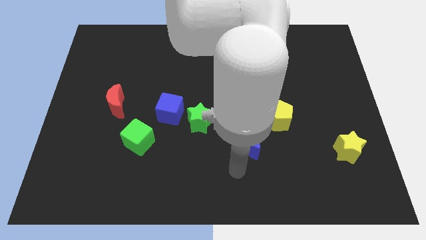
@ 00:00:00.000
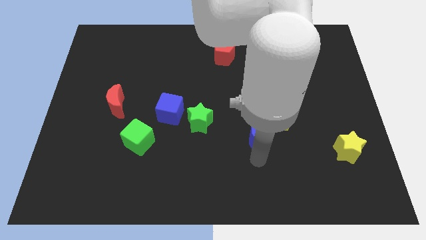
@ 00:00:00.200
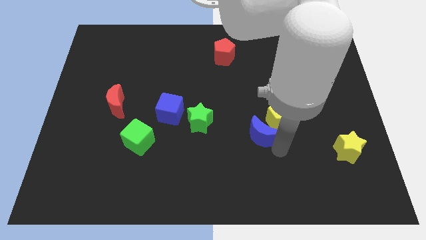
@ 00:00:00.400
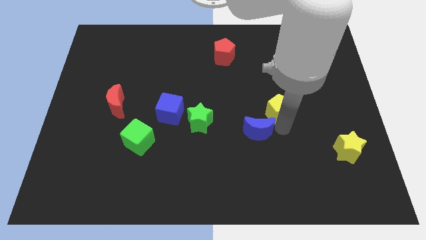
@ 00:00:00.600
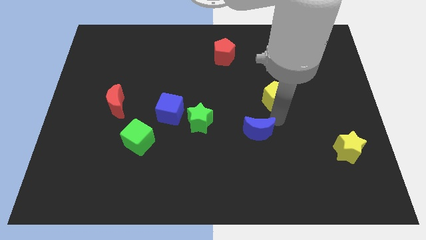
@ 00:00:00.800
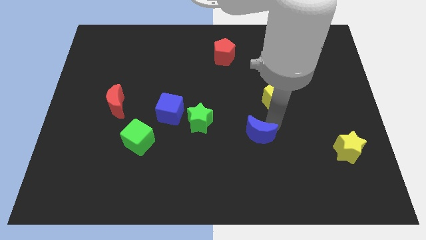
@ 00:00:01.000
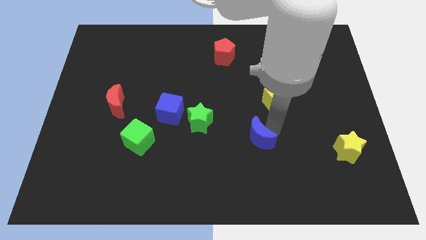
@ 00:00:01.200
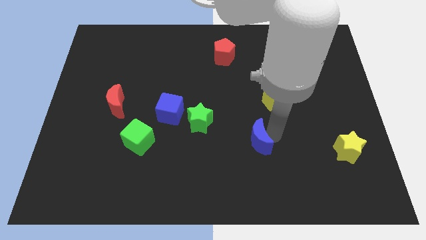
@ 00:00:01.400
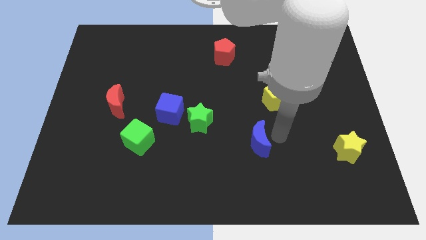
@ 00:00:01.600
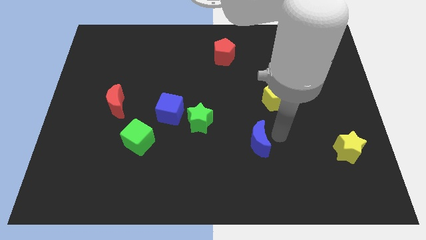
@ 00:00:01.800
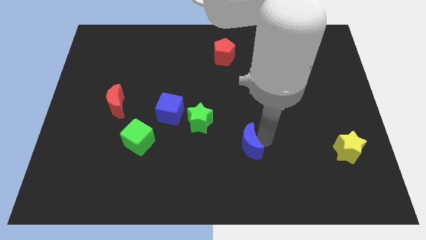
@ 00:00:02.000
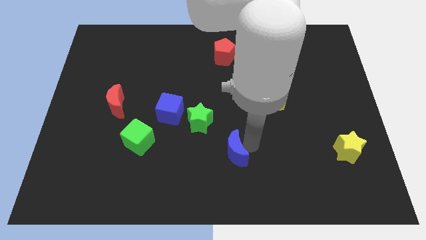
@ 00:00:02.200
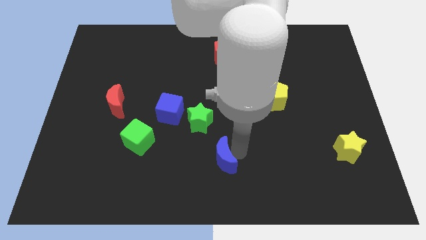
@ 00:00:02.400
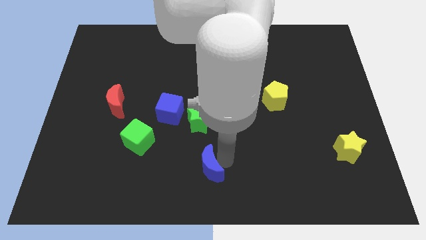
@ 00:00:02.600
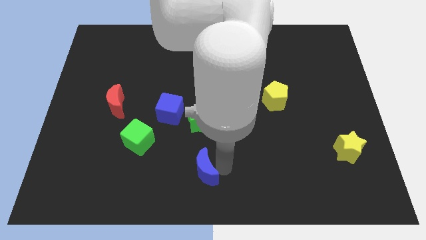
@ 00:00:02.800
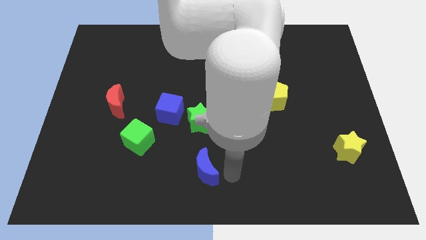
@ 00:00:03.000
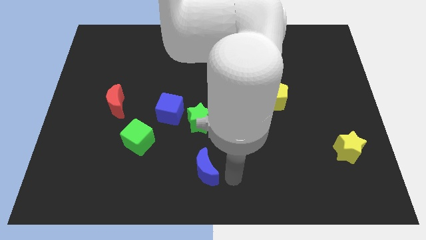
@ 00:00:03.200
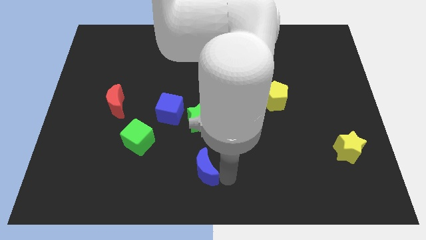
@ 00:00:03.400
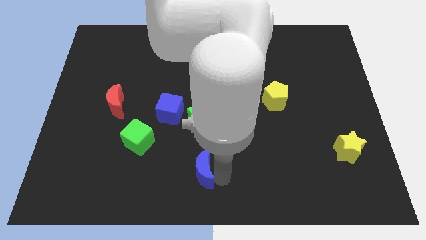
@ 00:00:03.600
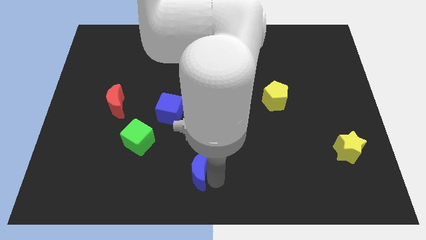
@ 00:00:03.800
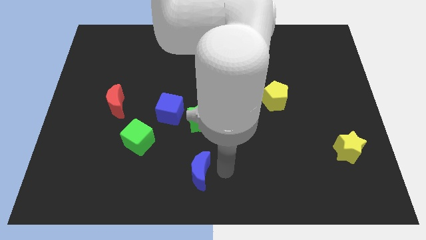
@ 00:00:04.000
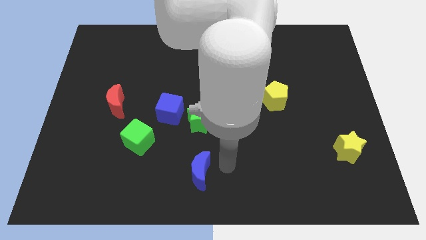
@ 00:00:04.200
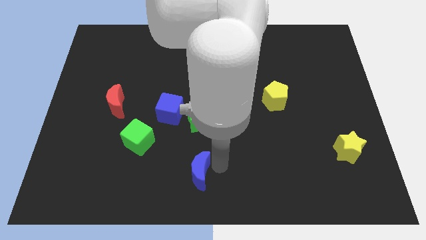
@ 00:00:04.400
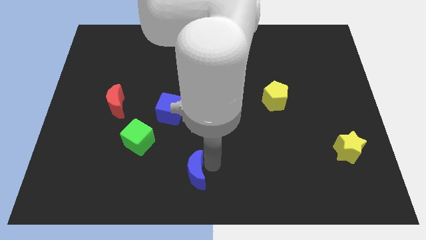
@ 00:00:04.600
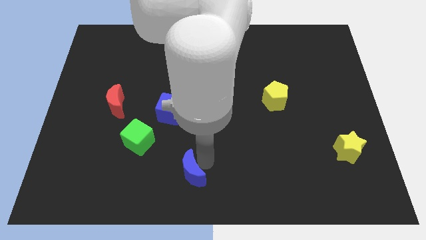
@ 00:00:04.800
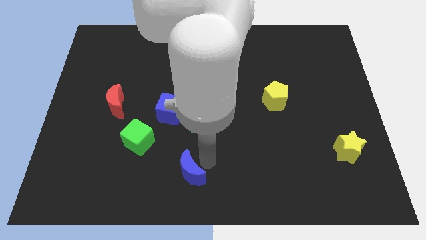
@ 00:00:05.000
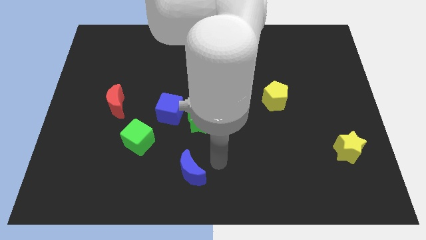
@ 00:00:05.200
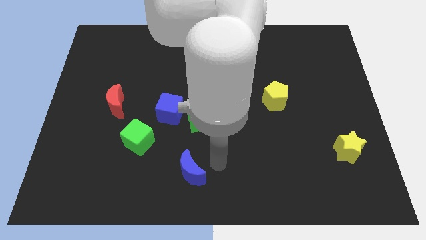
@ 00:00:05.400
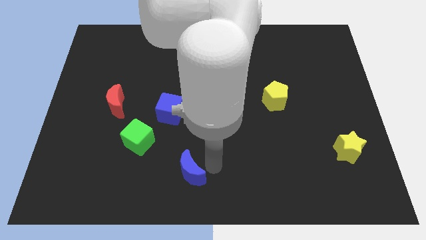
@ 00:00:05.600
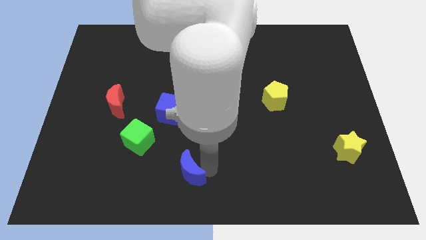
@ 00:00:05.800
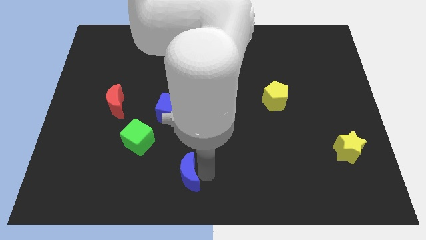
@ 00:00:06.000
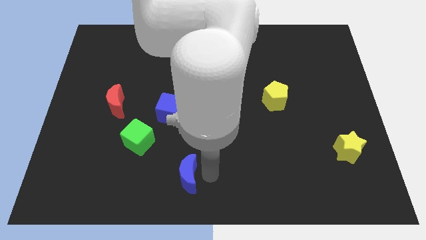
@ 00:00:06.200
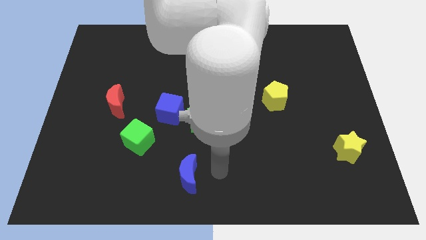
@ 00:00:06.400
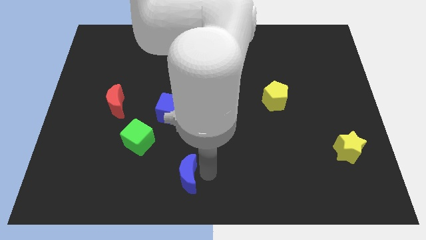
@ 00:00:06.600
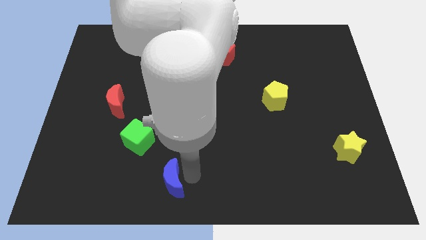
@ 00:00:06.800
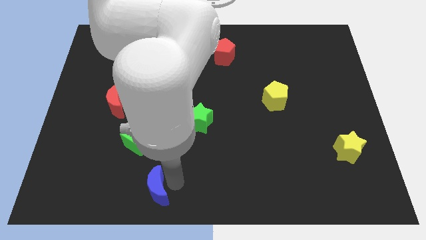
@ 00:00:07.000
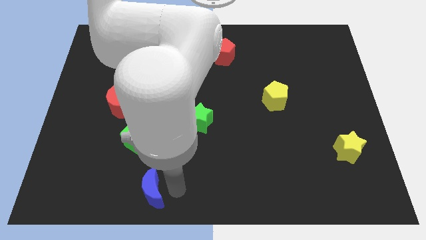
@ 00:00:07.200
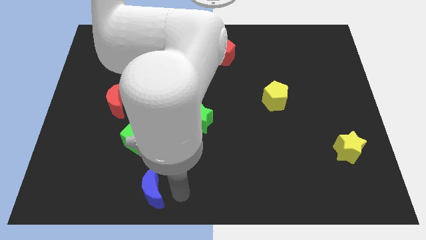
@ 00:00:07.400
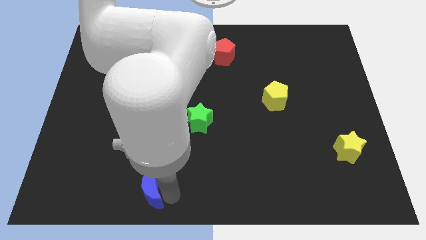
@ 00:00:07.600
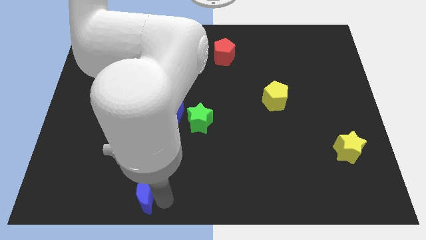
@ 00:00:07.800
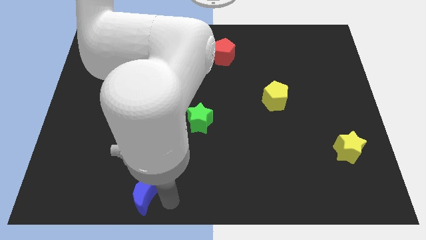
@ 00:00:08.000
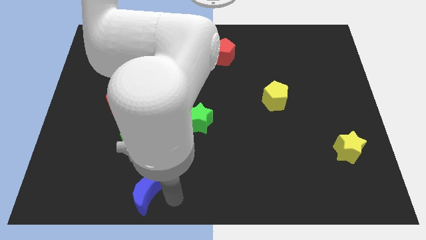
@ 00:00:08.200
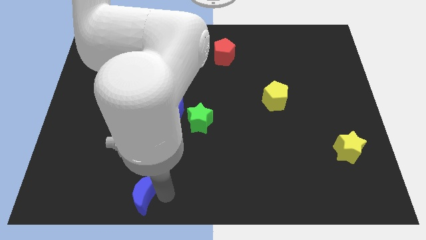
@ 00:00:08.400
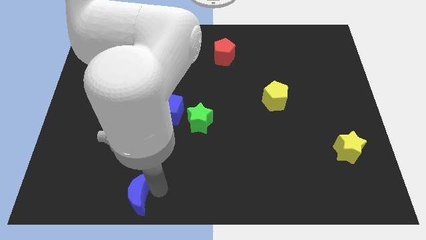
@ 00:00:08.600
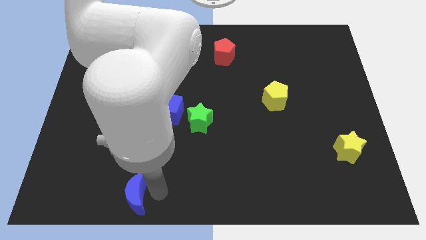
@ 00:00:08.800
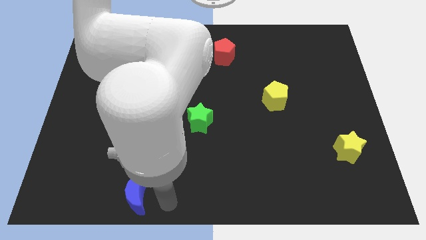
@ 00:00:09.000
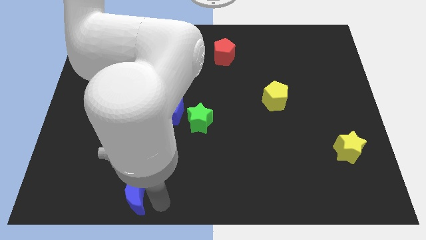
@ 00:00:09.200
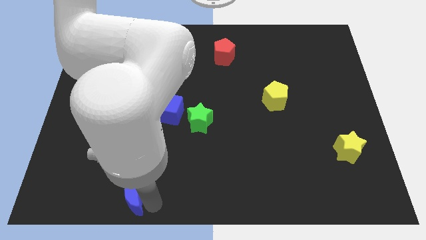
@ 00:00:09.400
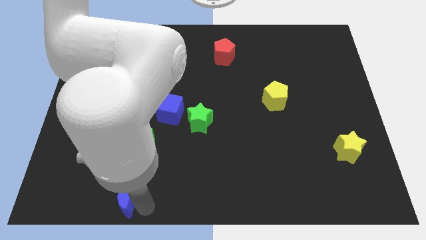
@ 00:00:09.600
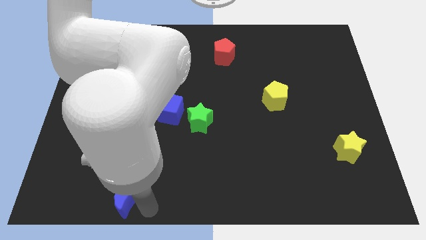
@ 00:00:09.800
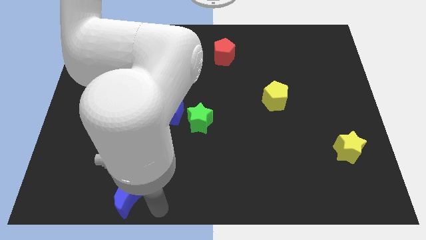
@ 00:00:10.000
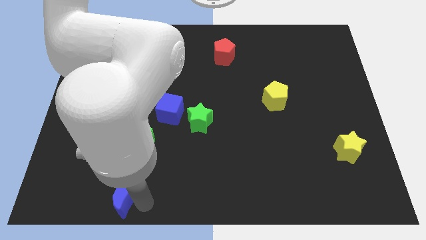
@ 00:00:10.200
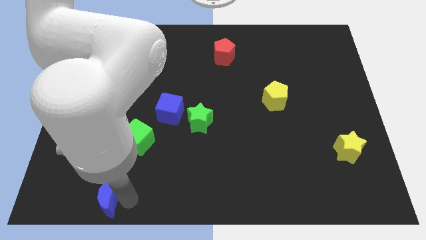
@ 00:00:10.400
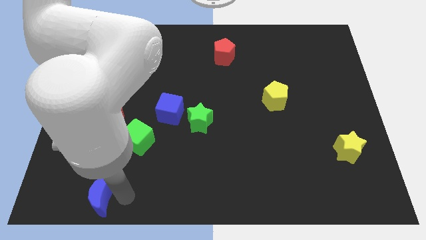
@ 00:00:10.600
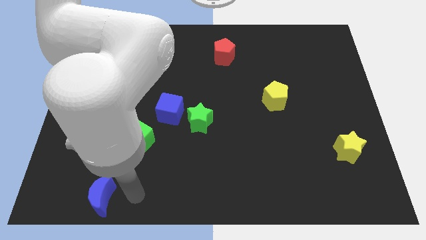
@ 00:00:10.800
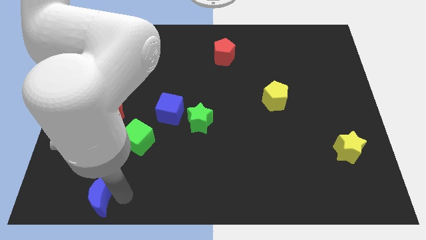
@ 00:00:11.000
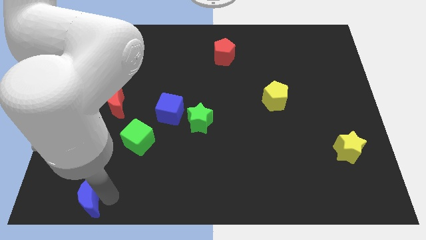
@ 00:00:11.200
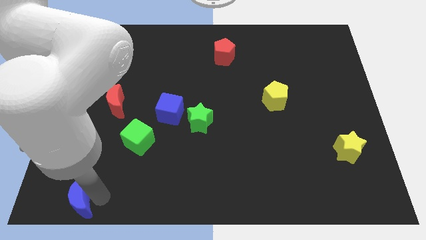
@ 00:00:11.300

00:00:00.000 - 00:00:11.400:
push the blue moon to the bottom left of the board

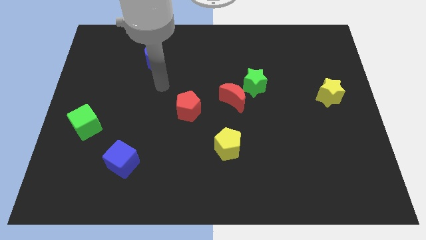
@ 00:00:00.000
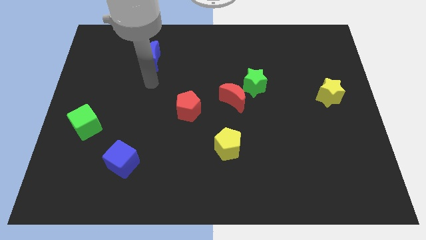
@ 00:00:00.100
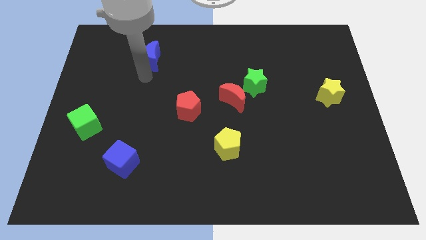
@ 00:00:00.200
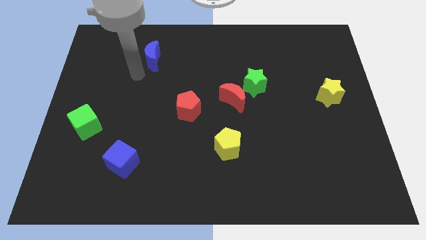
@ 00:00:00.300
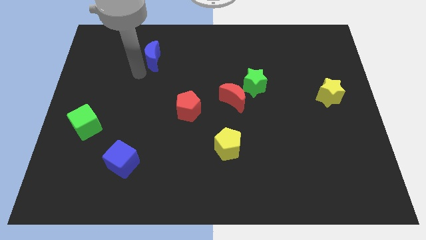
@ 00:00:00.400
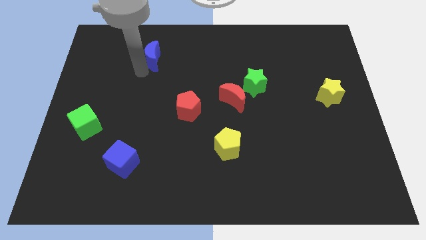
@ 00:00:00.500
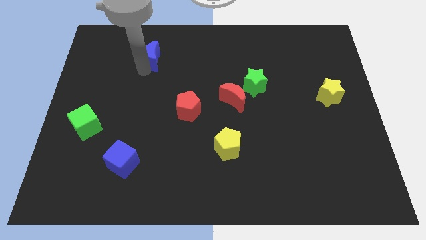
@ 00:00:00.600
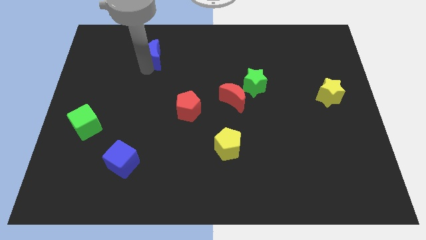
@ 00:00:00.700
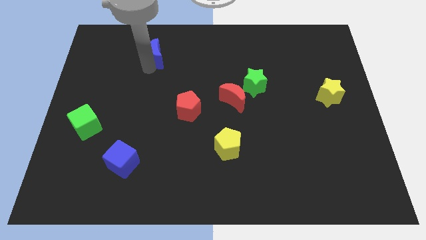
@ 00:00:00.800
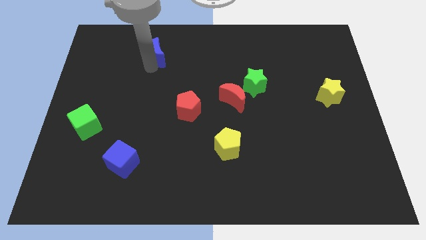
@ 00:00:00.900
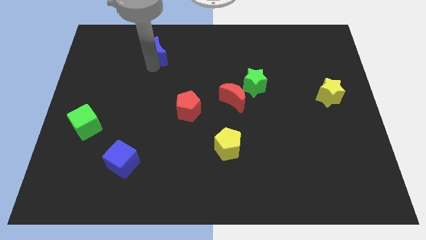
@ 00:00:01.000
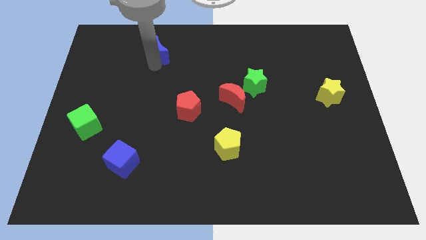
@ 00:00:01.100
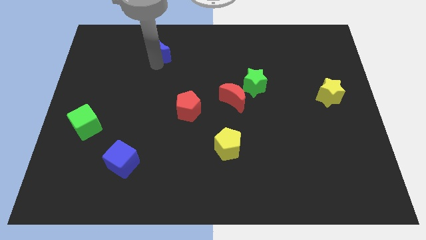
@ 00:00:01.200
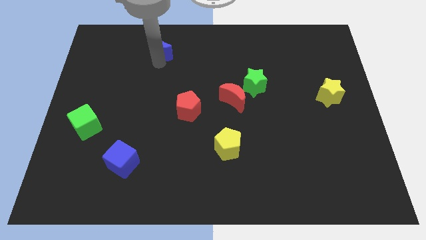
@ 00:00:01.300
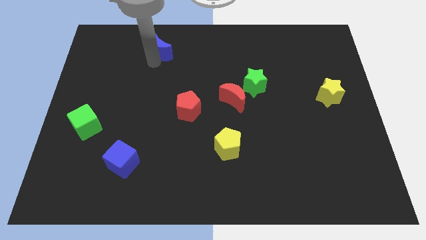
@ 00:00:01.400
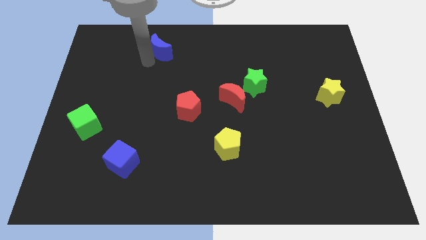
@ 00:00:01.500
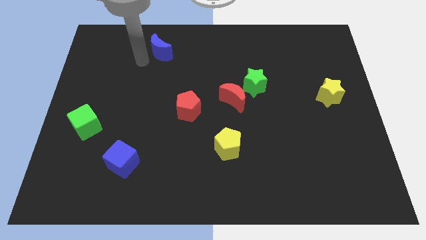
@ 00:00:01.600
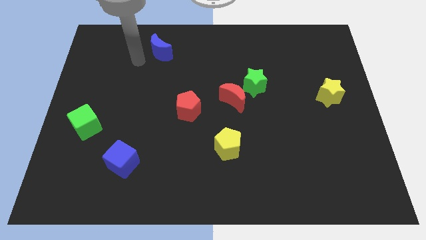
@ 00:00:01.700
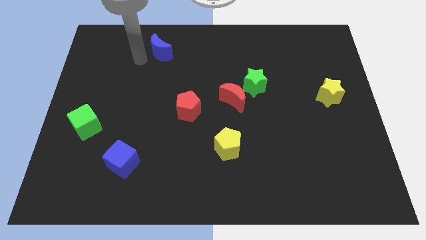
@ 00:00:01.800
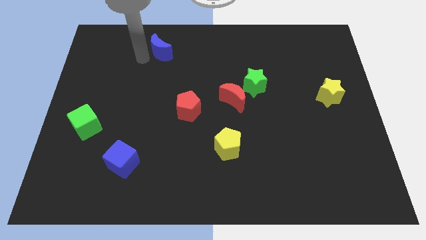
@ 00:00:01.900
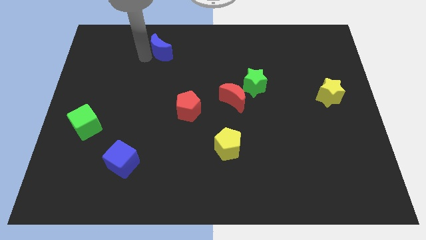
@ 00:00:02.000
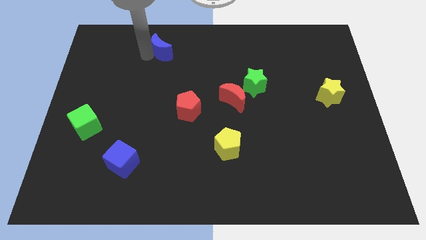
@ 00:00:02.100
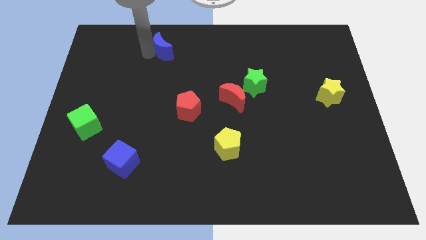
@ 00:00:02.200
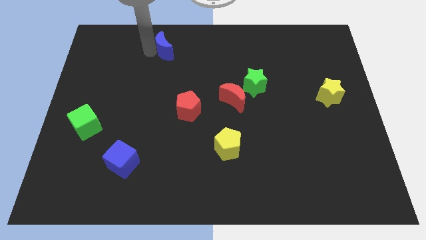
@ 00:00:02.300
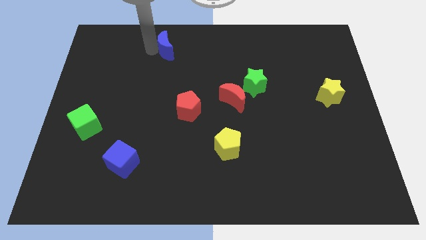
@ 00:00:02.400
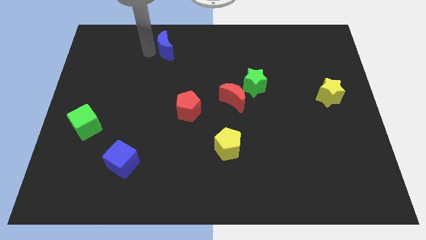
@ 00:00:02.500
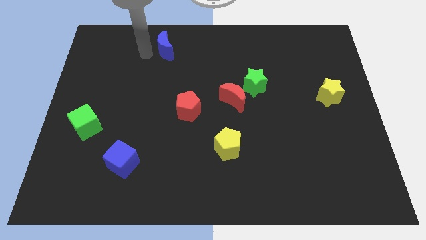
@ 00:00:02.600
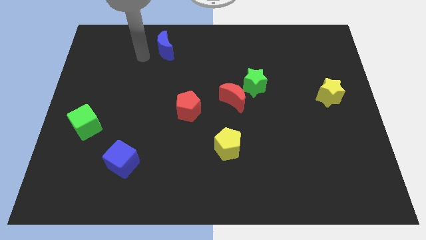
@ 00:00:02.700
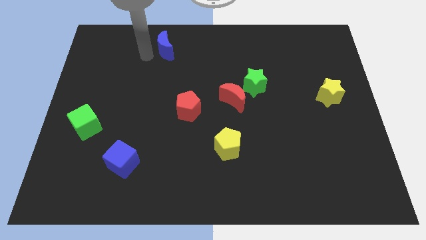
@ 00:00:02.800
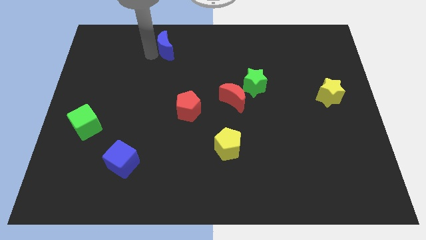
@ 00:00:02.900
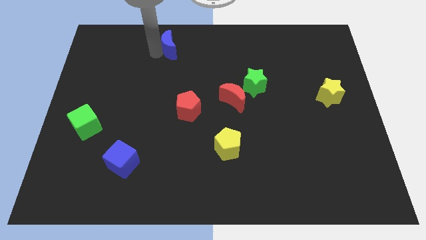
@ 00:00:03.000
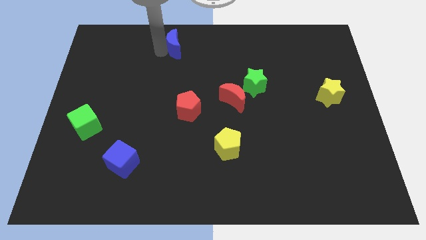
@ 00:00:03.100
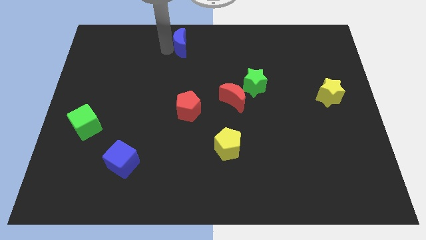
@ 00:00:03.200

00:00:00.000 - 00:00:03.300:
push the blue moon to the towards your base
